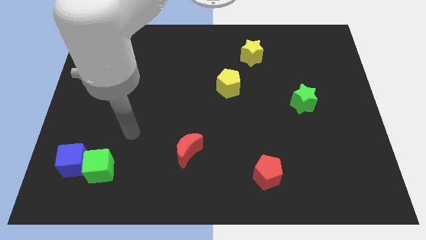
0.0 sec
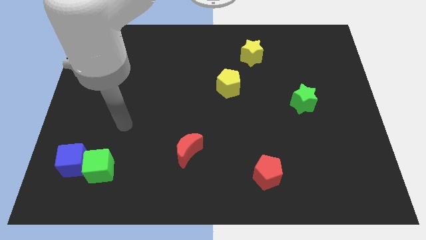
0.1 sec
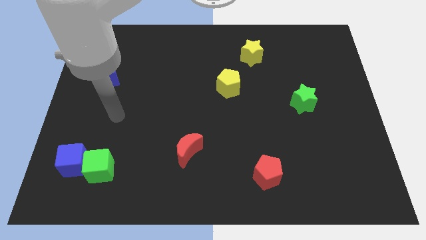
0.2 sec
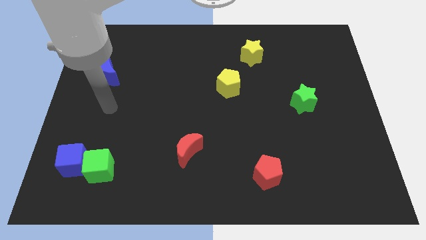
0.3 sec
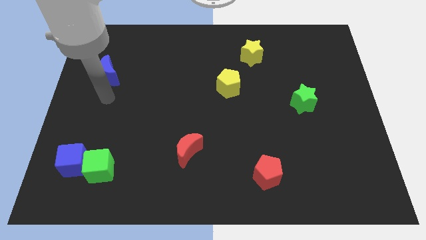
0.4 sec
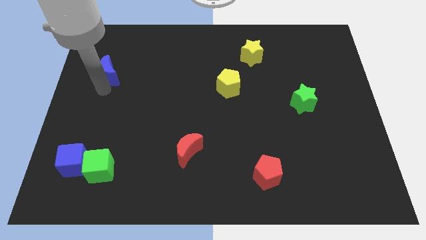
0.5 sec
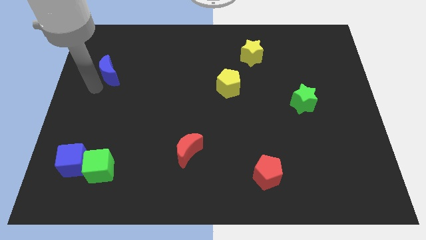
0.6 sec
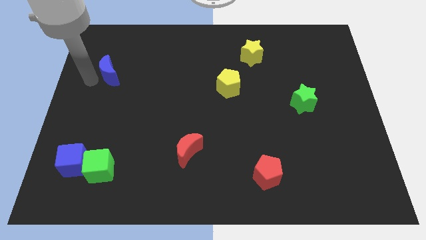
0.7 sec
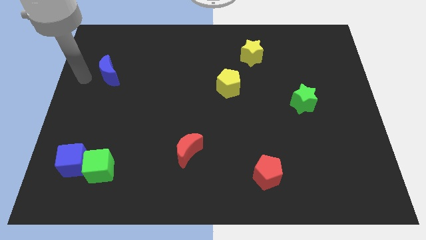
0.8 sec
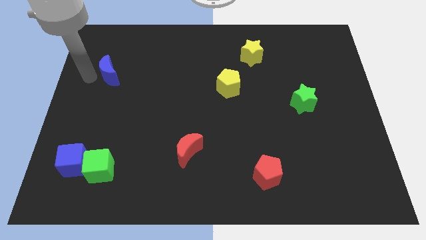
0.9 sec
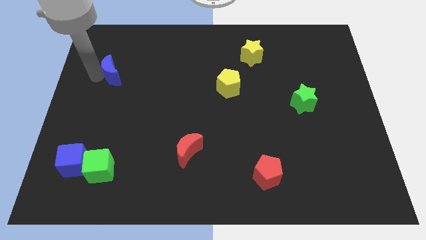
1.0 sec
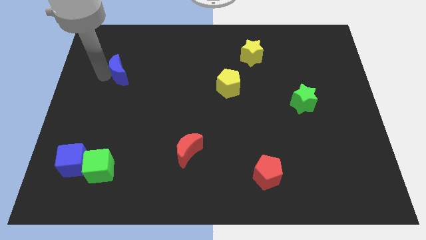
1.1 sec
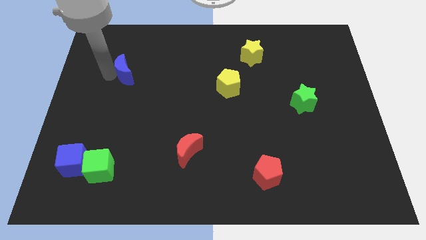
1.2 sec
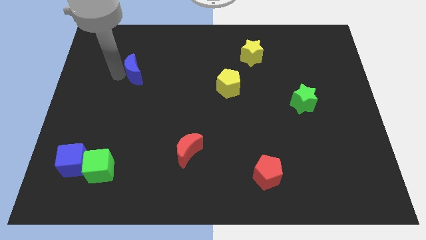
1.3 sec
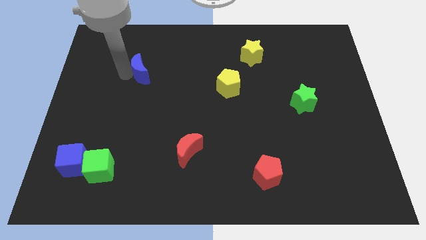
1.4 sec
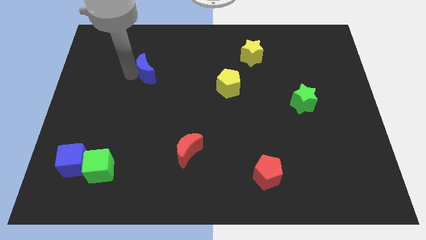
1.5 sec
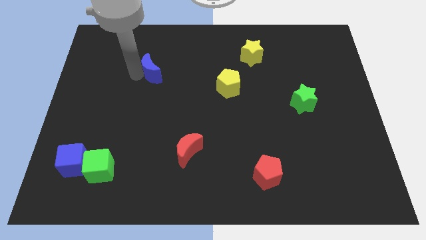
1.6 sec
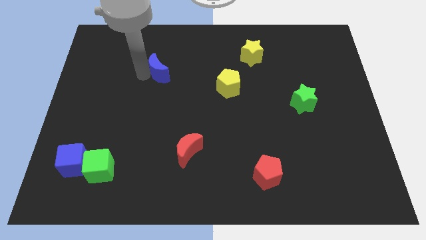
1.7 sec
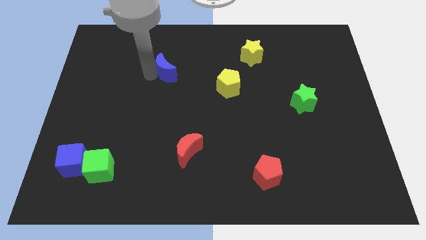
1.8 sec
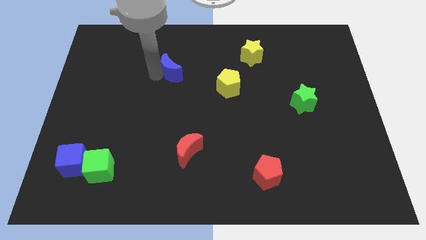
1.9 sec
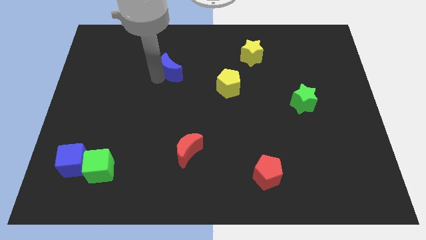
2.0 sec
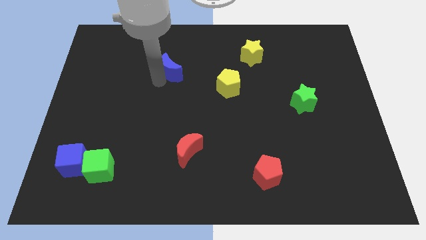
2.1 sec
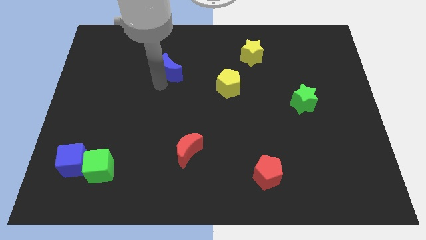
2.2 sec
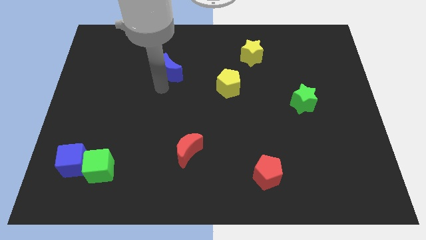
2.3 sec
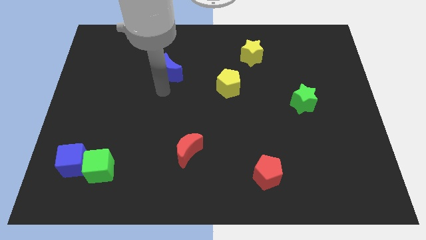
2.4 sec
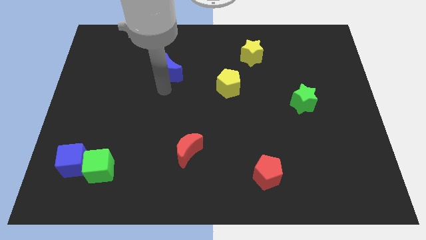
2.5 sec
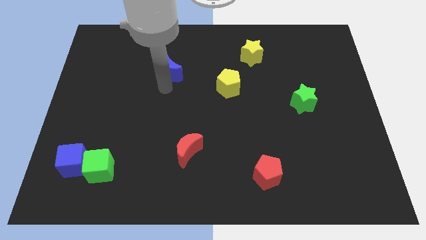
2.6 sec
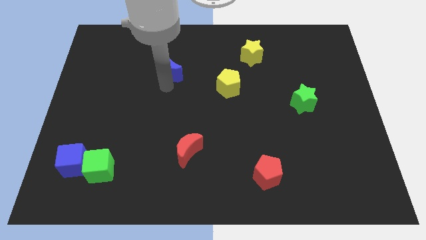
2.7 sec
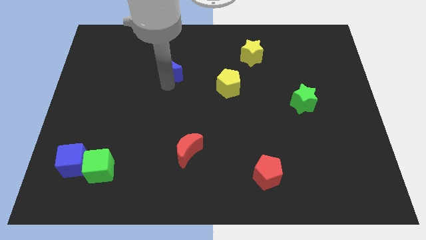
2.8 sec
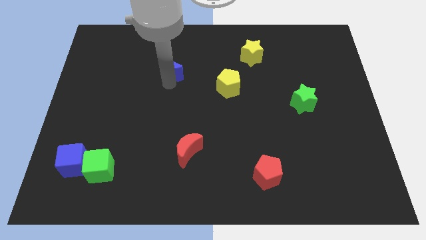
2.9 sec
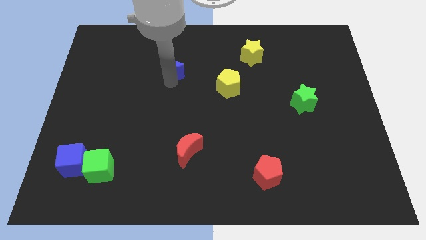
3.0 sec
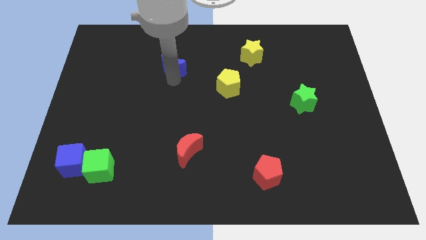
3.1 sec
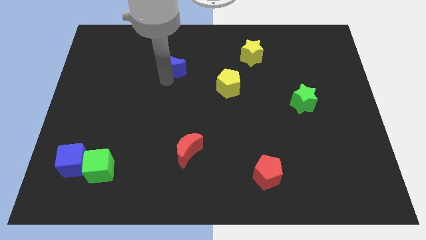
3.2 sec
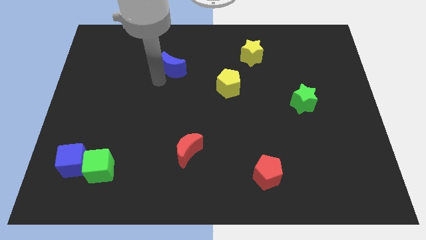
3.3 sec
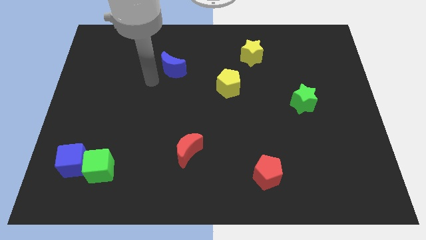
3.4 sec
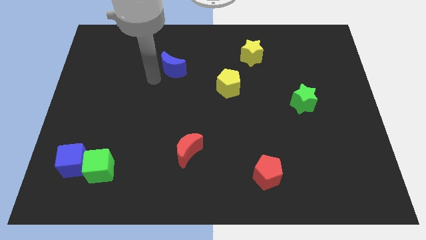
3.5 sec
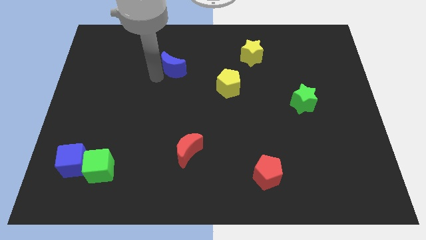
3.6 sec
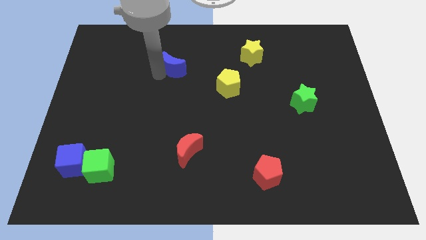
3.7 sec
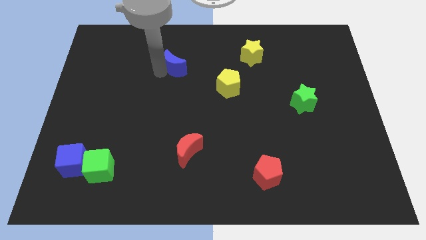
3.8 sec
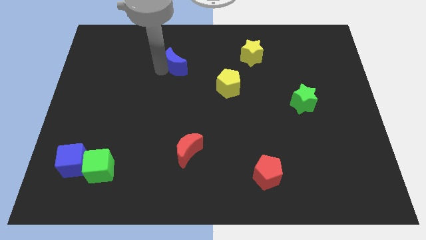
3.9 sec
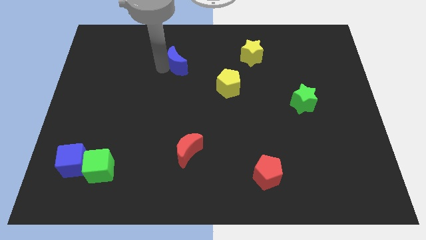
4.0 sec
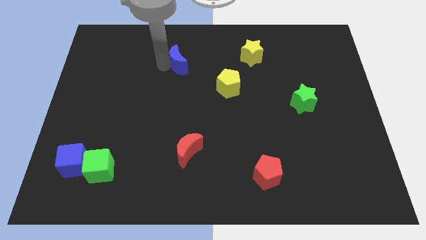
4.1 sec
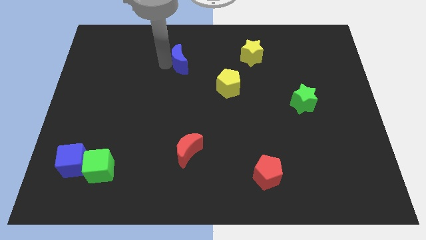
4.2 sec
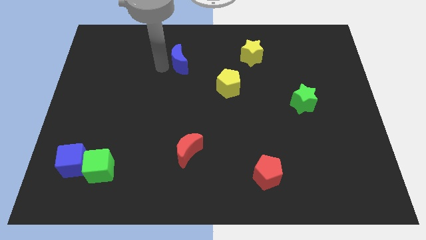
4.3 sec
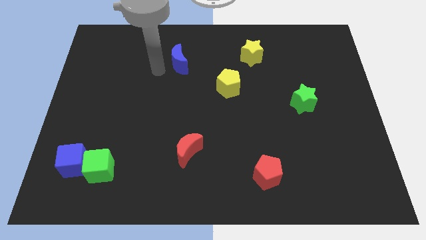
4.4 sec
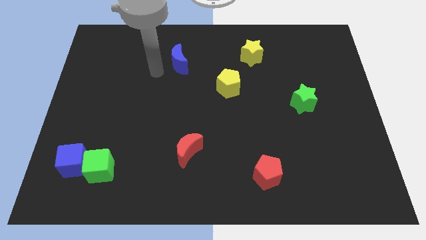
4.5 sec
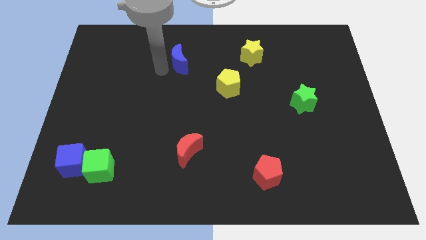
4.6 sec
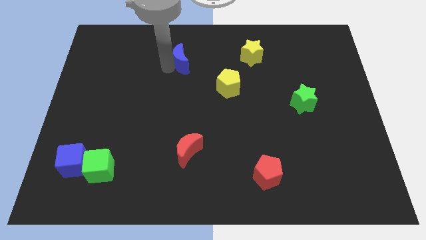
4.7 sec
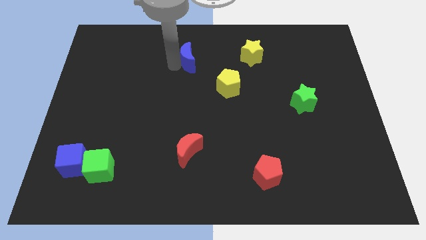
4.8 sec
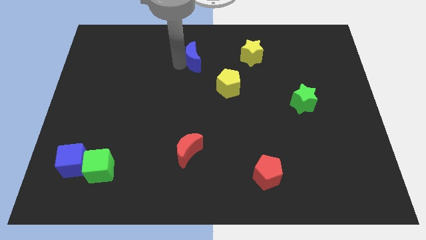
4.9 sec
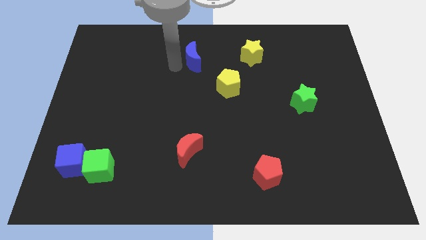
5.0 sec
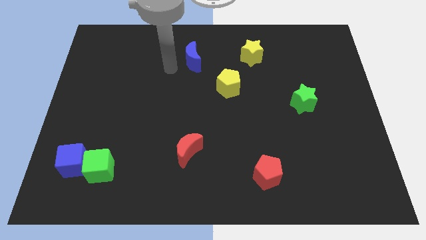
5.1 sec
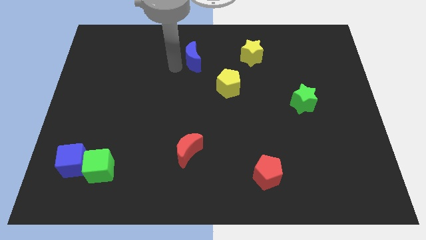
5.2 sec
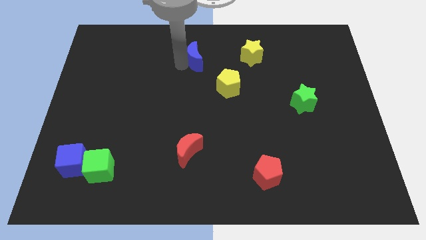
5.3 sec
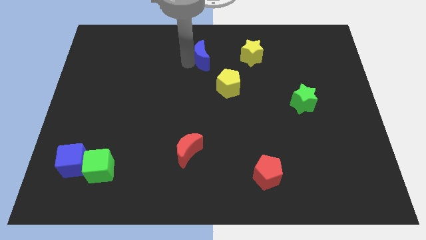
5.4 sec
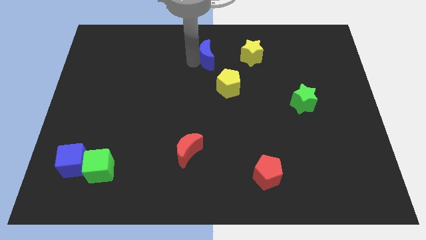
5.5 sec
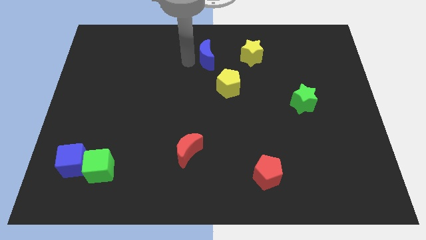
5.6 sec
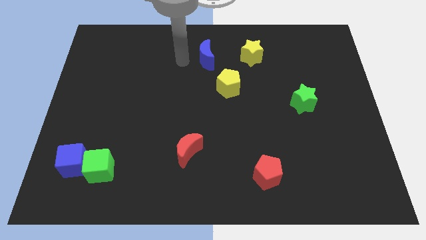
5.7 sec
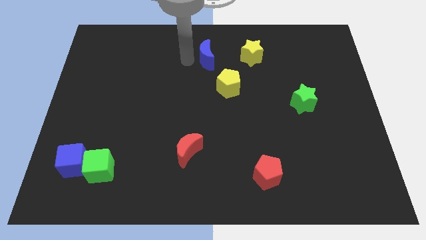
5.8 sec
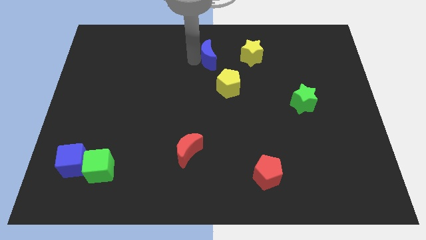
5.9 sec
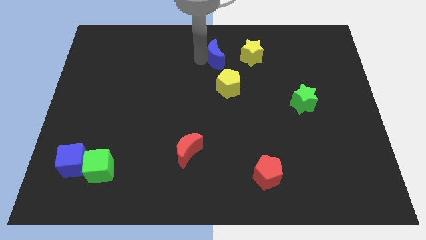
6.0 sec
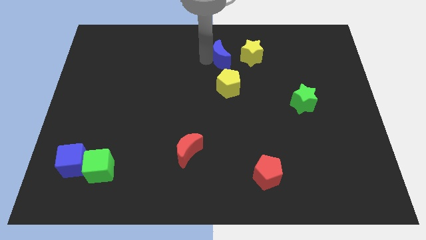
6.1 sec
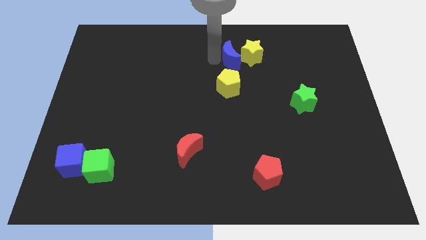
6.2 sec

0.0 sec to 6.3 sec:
move the blue moon close to the yellow star

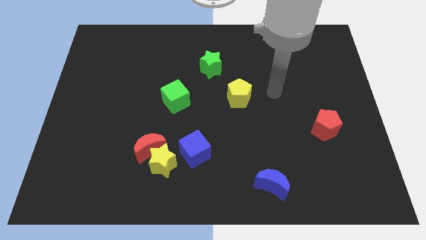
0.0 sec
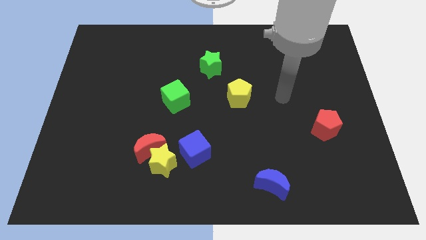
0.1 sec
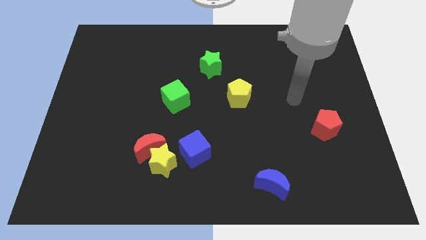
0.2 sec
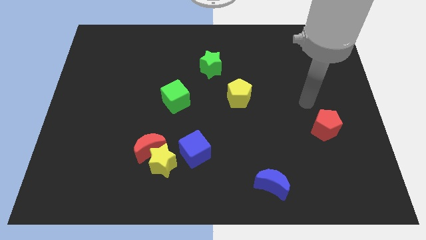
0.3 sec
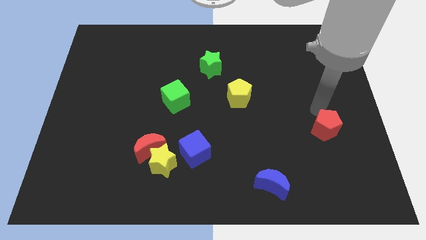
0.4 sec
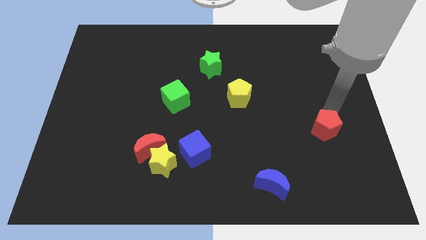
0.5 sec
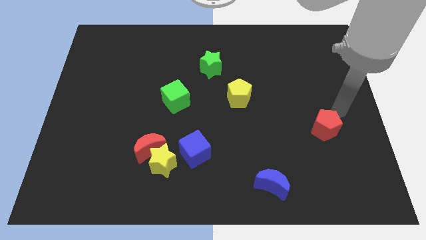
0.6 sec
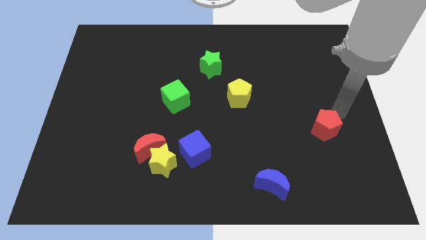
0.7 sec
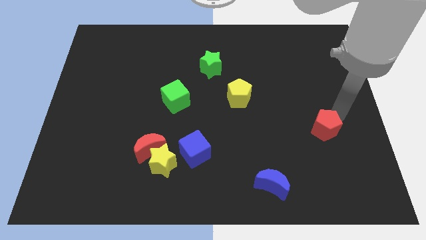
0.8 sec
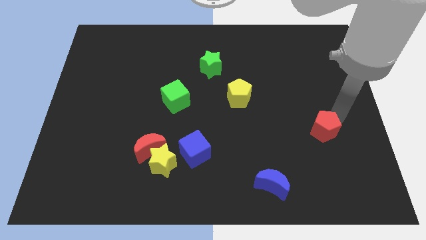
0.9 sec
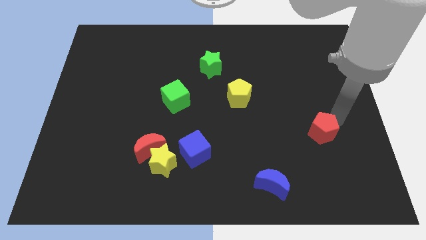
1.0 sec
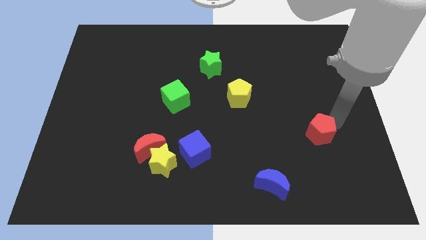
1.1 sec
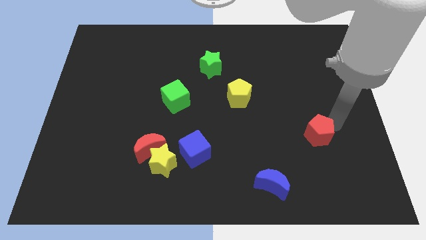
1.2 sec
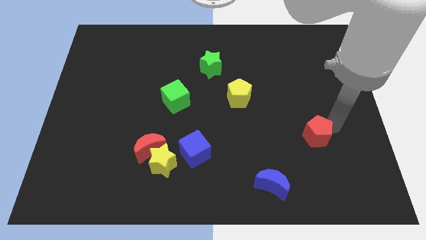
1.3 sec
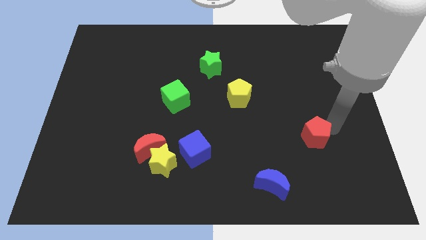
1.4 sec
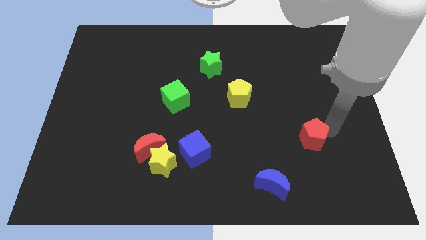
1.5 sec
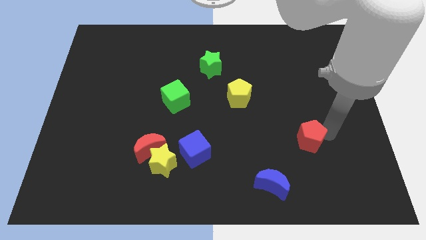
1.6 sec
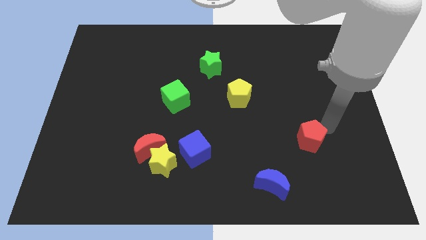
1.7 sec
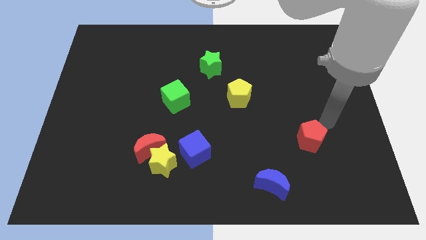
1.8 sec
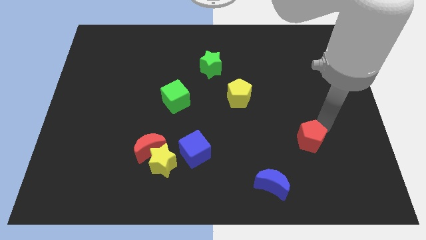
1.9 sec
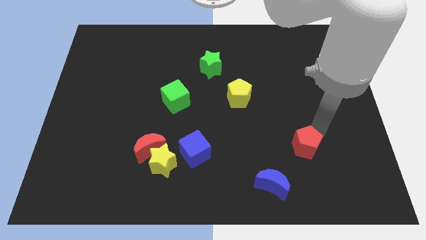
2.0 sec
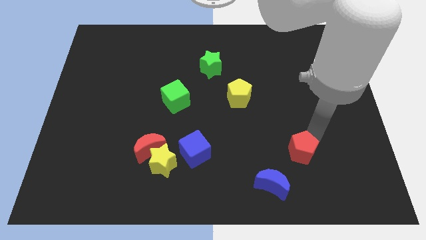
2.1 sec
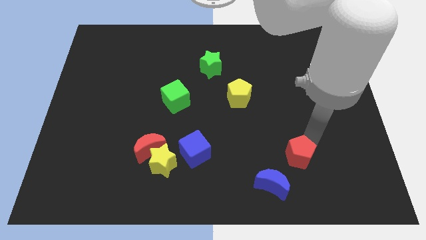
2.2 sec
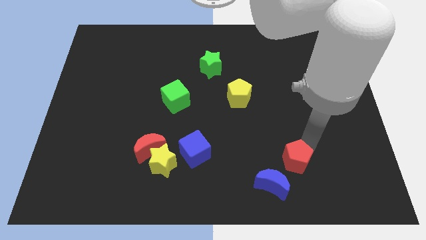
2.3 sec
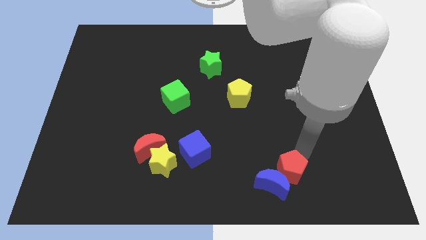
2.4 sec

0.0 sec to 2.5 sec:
push the red pentagon to the blue moon
